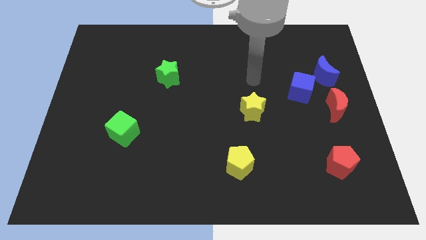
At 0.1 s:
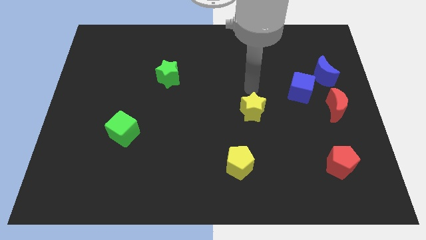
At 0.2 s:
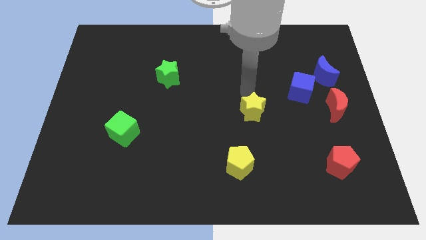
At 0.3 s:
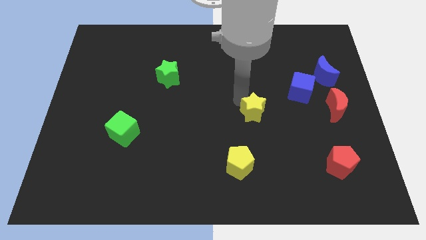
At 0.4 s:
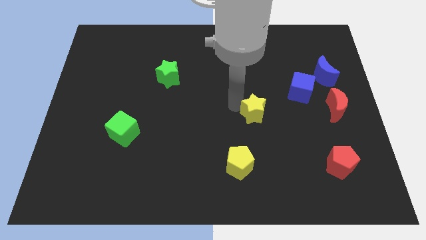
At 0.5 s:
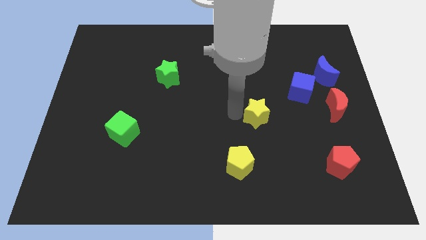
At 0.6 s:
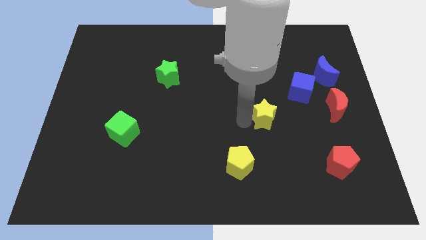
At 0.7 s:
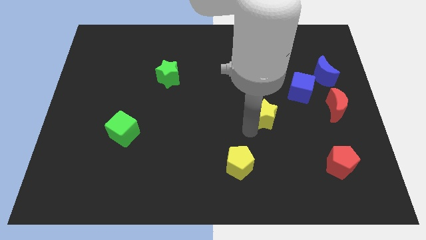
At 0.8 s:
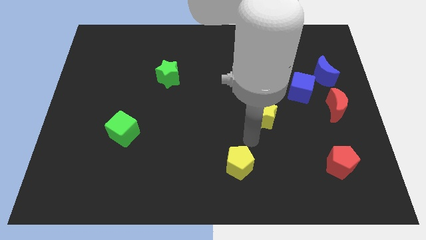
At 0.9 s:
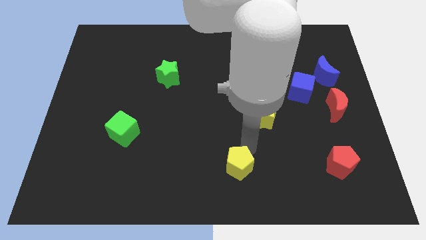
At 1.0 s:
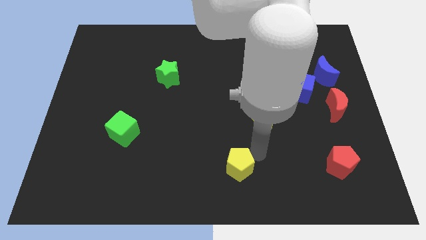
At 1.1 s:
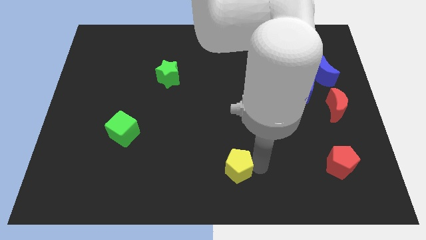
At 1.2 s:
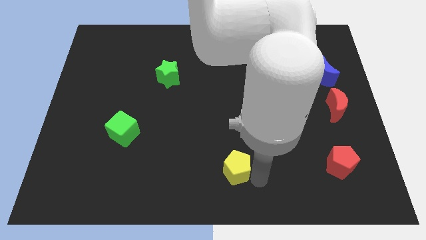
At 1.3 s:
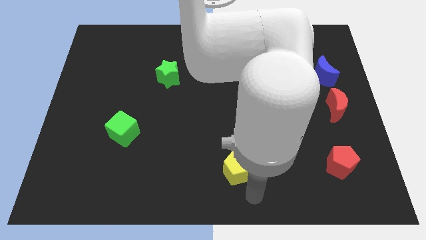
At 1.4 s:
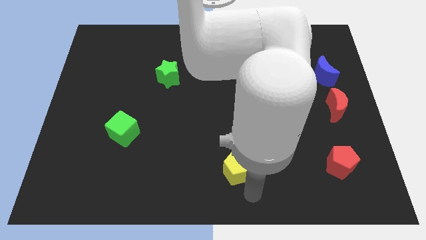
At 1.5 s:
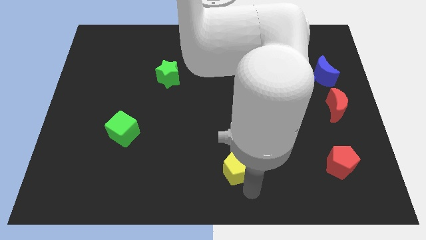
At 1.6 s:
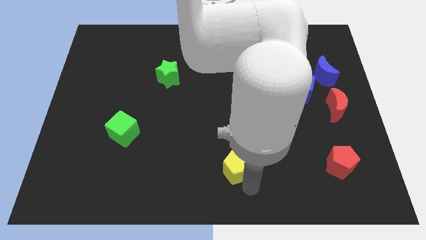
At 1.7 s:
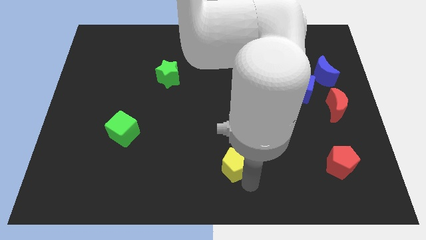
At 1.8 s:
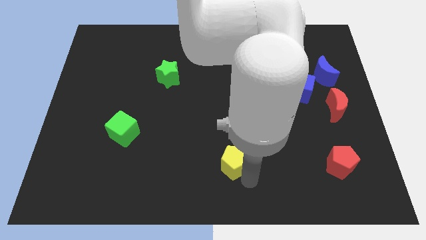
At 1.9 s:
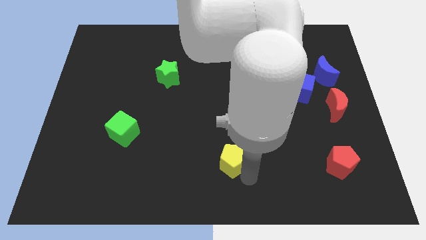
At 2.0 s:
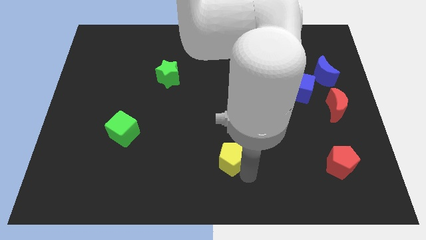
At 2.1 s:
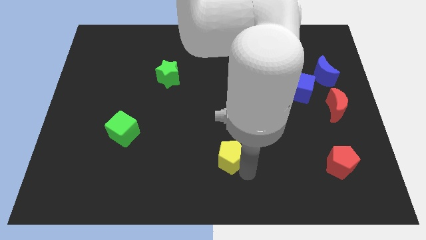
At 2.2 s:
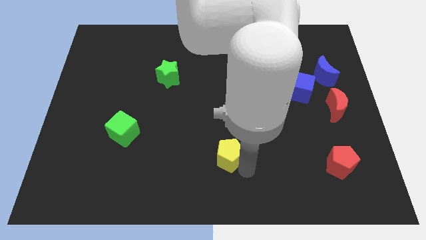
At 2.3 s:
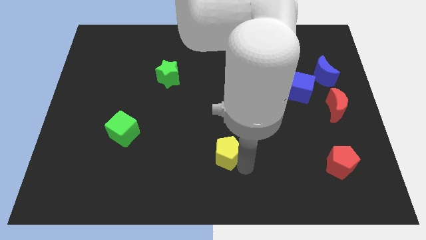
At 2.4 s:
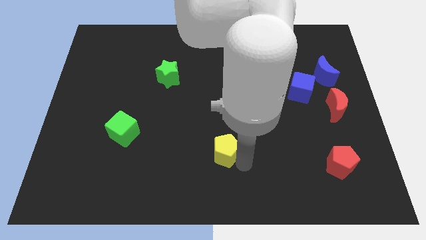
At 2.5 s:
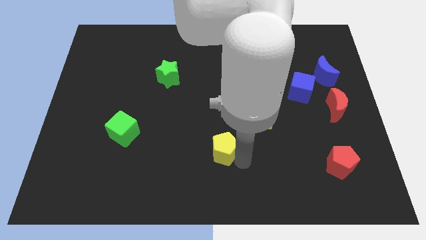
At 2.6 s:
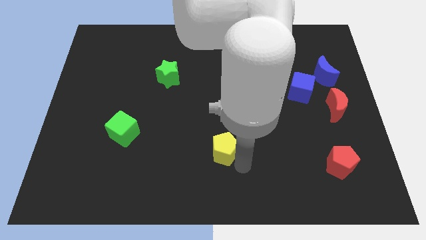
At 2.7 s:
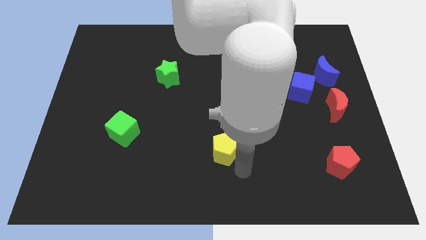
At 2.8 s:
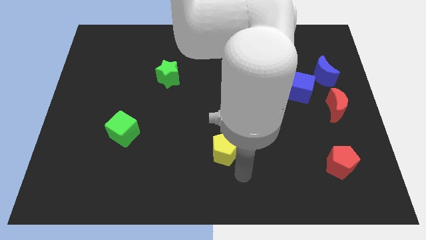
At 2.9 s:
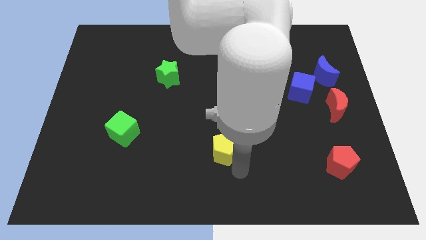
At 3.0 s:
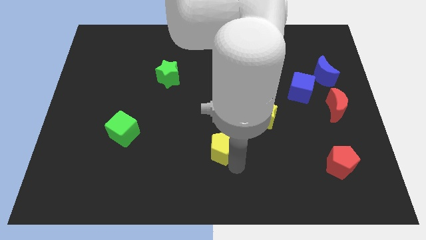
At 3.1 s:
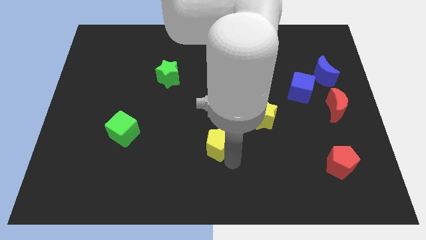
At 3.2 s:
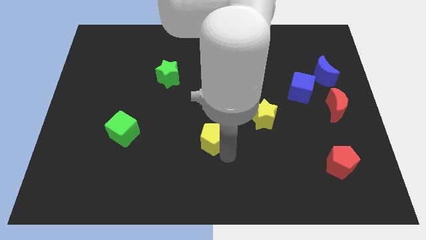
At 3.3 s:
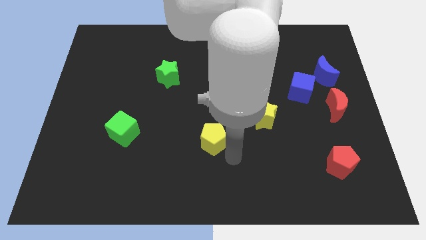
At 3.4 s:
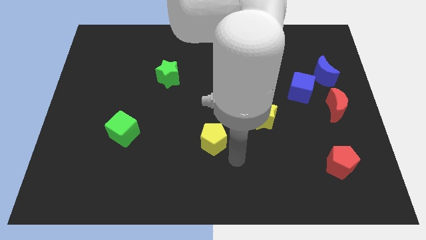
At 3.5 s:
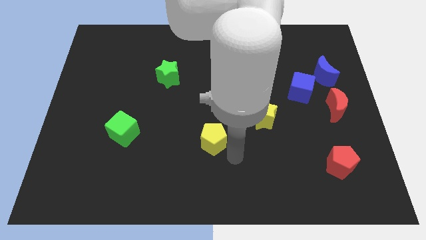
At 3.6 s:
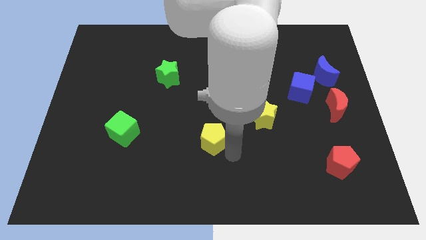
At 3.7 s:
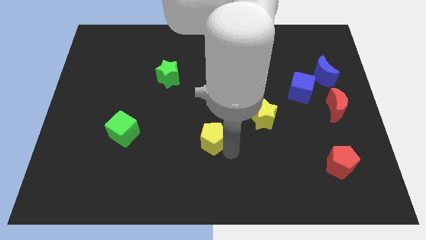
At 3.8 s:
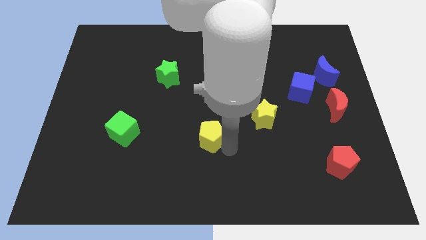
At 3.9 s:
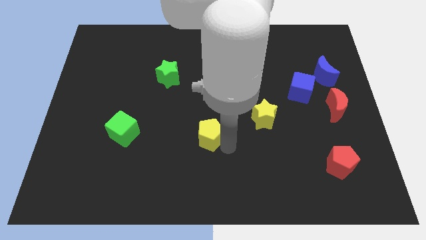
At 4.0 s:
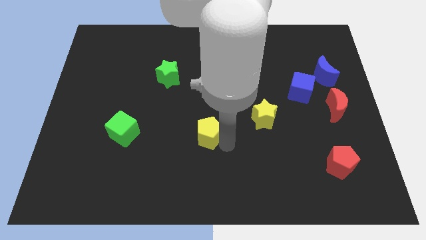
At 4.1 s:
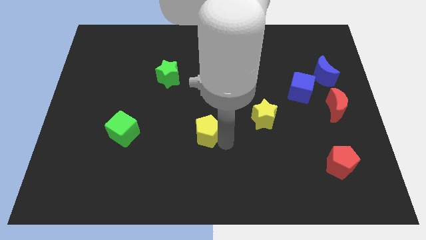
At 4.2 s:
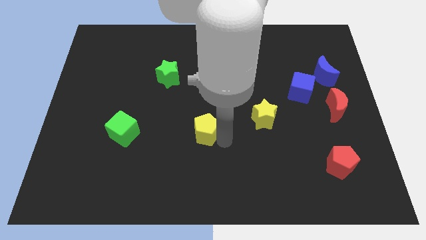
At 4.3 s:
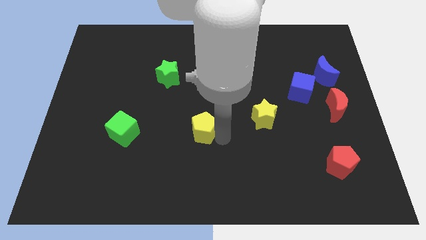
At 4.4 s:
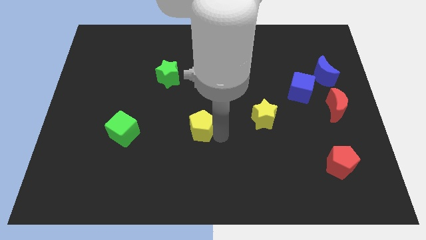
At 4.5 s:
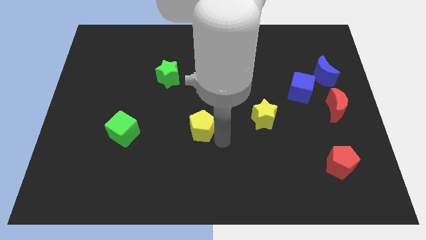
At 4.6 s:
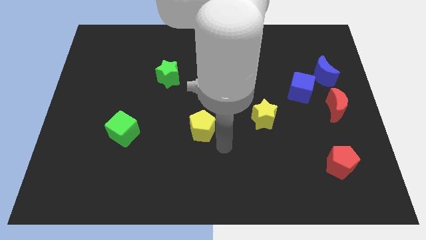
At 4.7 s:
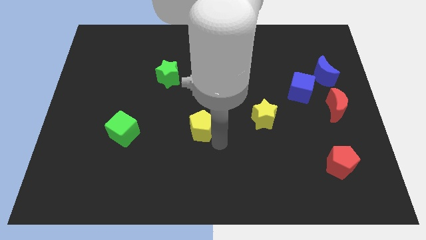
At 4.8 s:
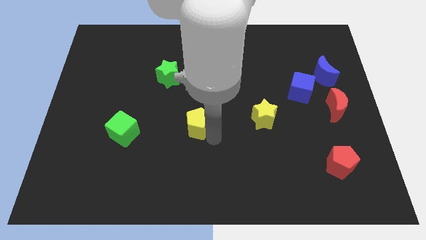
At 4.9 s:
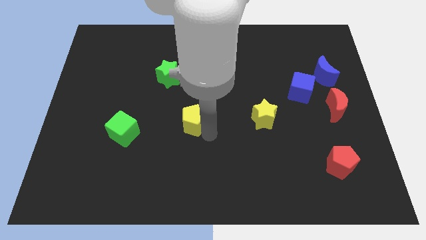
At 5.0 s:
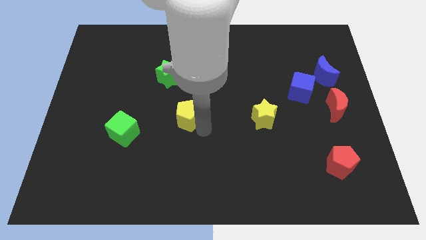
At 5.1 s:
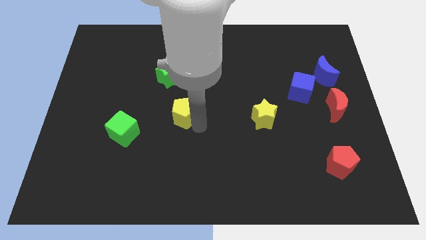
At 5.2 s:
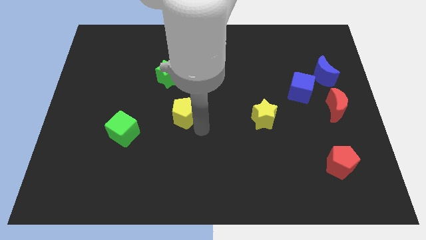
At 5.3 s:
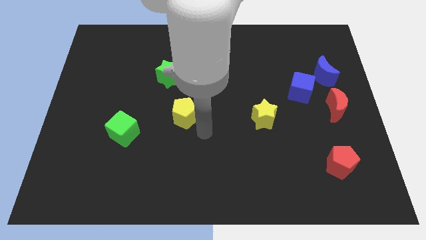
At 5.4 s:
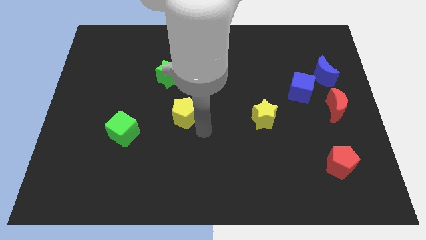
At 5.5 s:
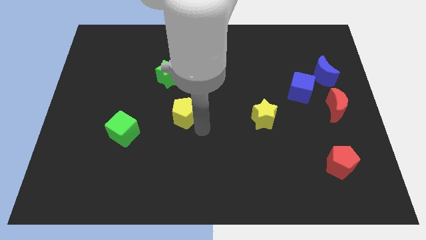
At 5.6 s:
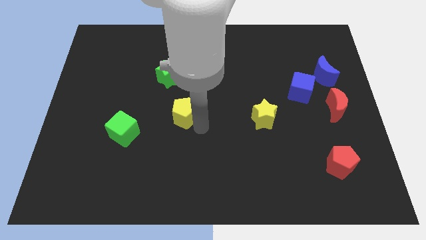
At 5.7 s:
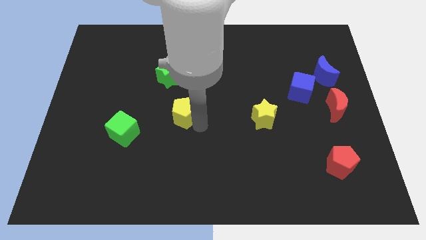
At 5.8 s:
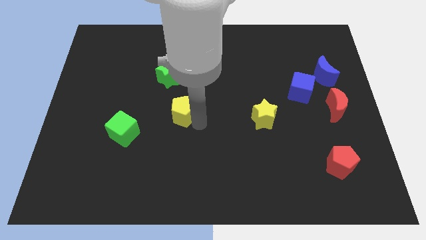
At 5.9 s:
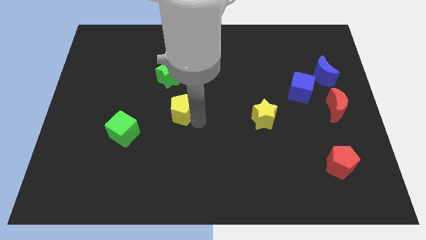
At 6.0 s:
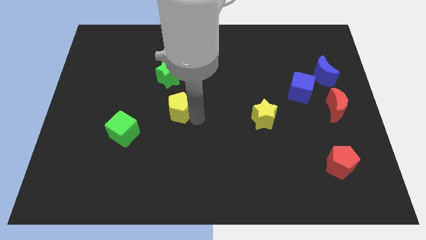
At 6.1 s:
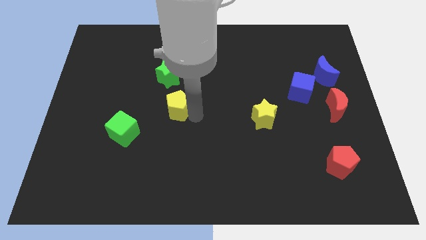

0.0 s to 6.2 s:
move the yellow pentagon up and then to the left

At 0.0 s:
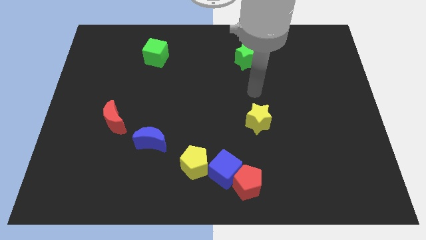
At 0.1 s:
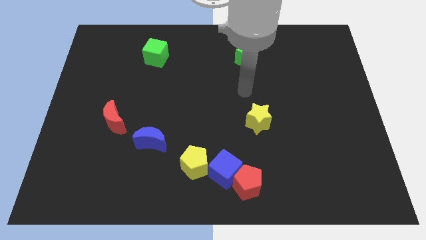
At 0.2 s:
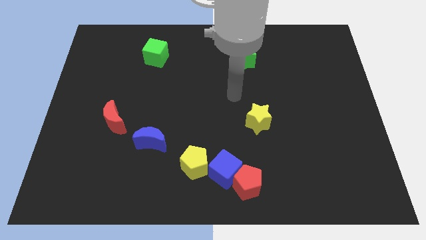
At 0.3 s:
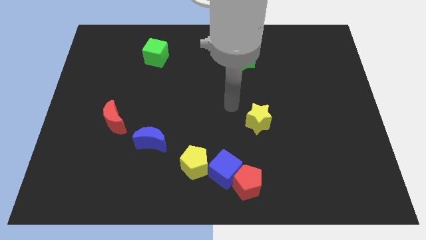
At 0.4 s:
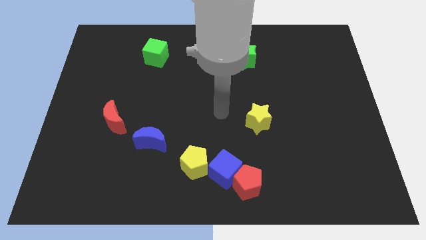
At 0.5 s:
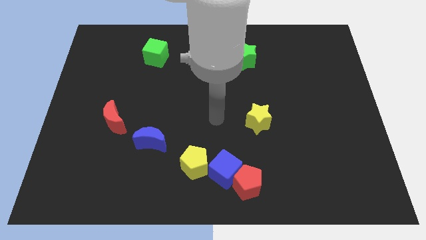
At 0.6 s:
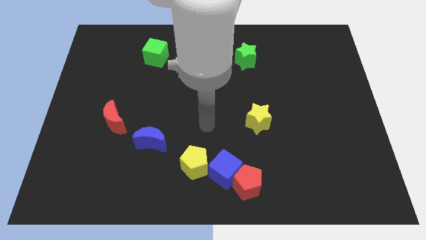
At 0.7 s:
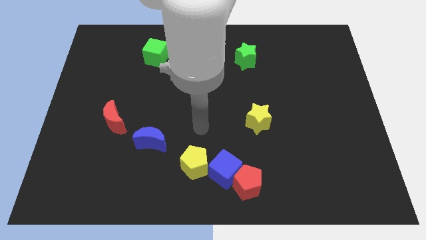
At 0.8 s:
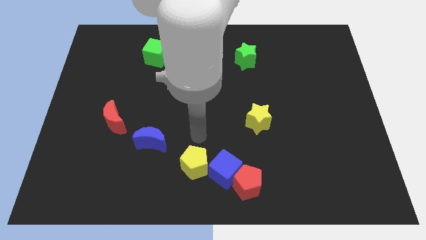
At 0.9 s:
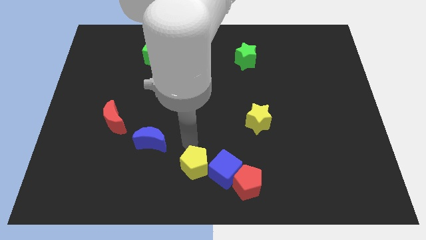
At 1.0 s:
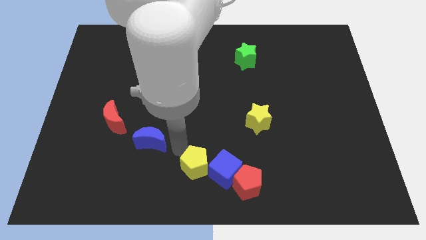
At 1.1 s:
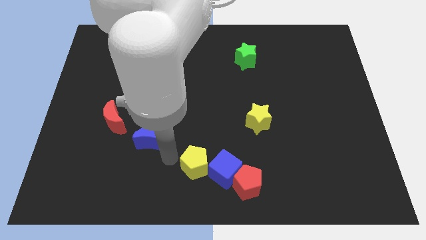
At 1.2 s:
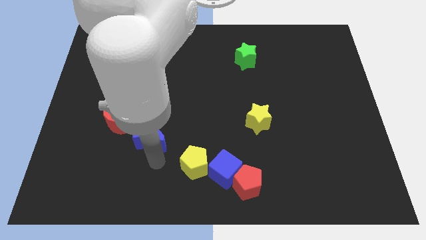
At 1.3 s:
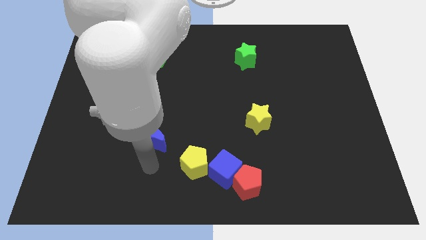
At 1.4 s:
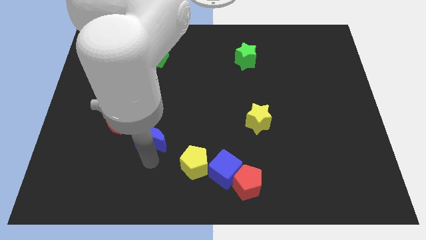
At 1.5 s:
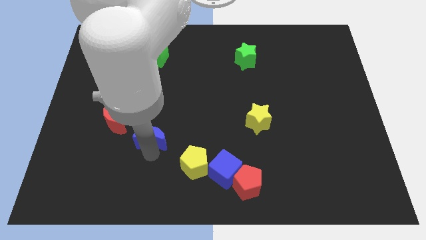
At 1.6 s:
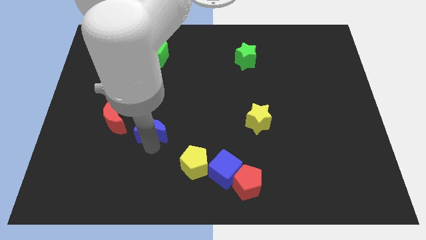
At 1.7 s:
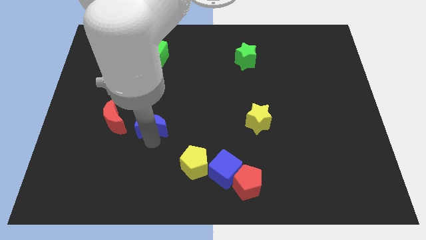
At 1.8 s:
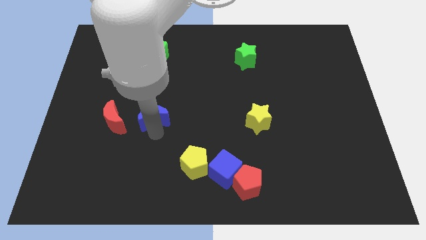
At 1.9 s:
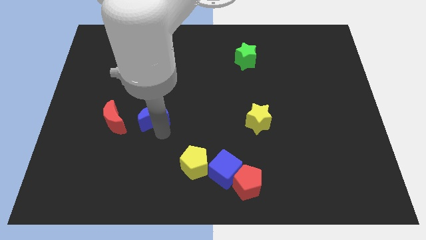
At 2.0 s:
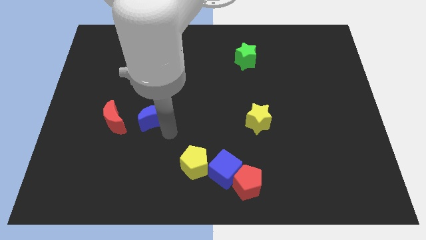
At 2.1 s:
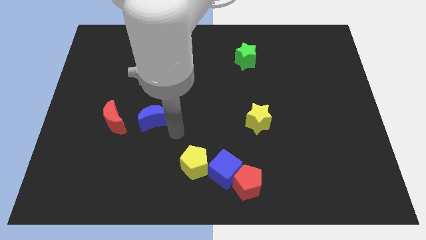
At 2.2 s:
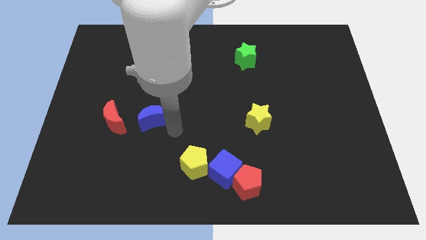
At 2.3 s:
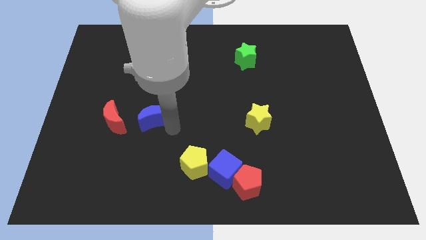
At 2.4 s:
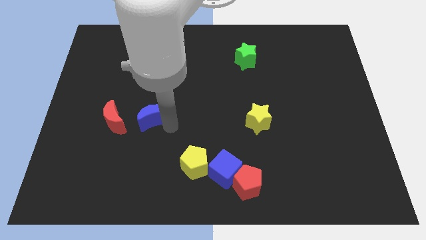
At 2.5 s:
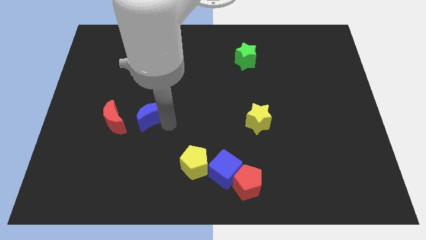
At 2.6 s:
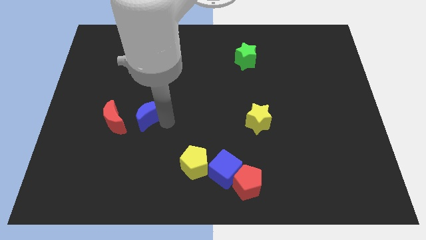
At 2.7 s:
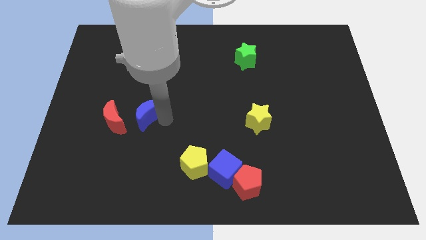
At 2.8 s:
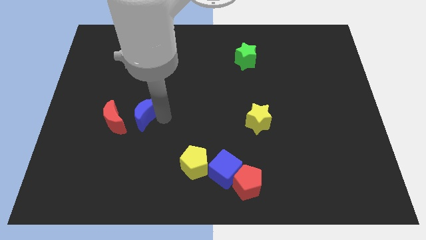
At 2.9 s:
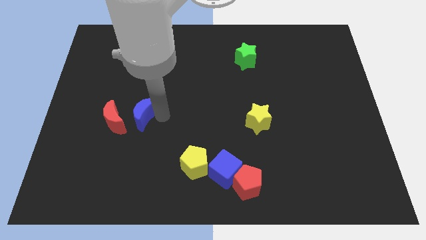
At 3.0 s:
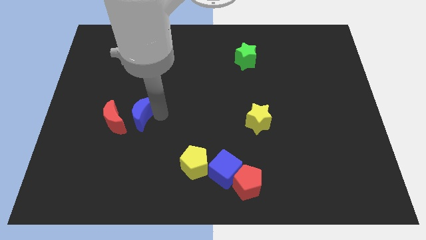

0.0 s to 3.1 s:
slightly move the blue moon up and then left
